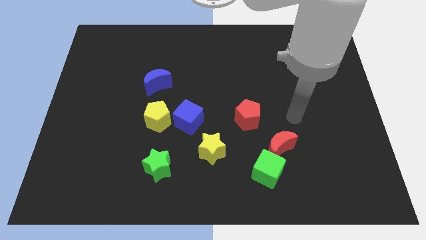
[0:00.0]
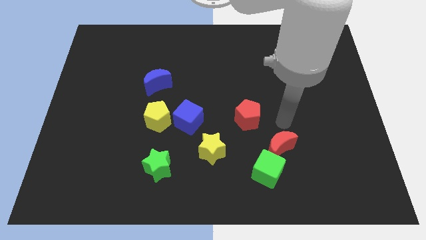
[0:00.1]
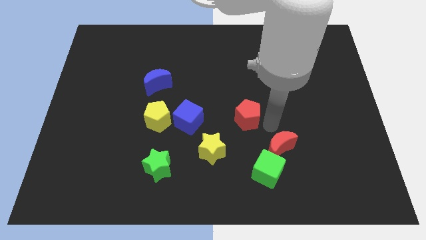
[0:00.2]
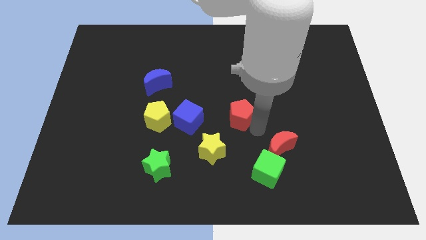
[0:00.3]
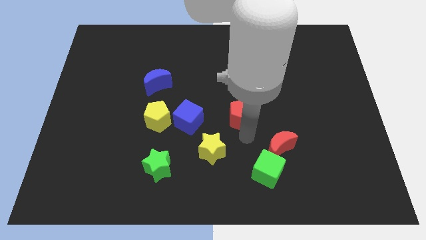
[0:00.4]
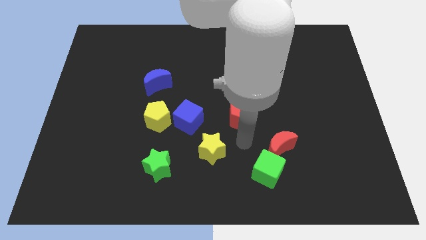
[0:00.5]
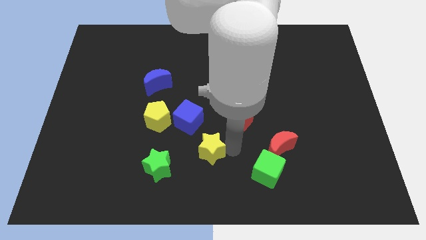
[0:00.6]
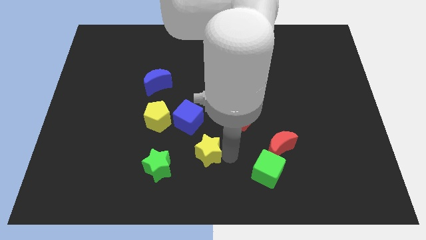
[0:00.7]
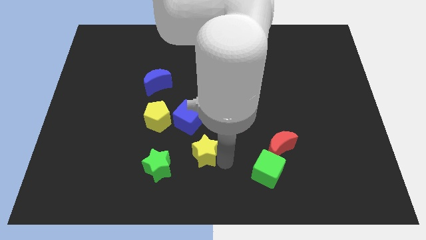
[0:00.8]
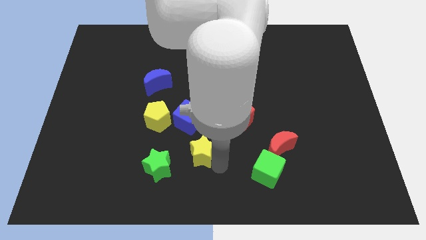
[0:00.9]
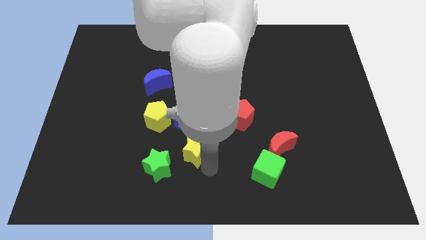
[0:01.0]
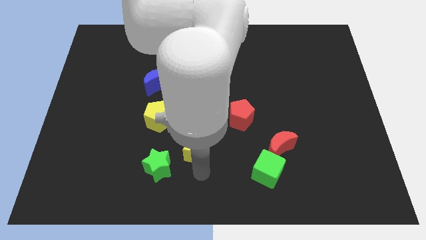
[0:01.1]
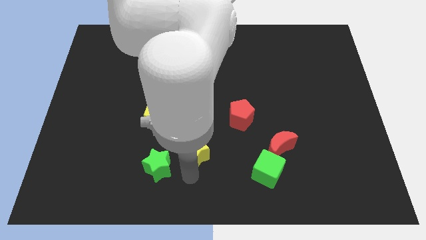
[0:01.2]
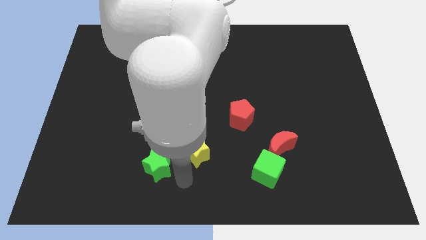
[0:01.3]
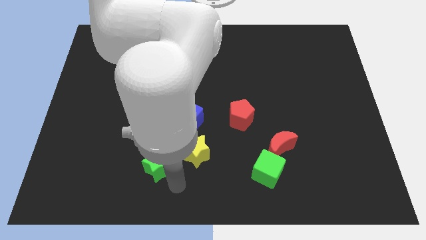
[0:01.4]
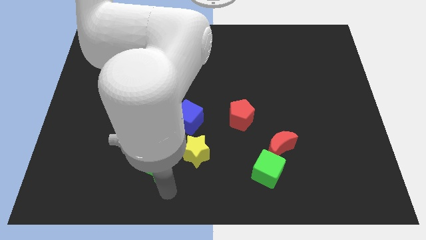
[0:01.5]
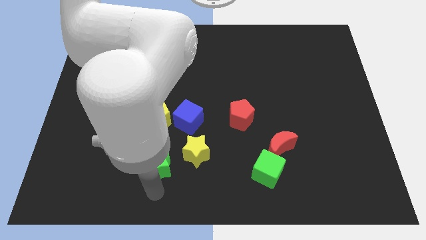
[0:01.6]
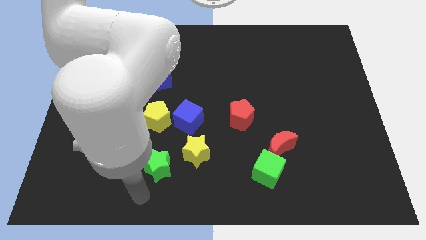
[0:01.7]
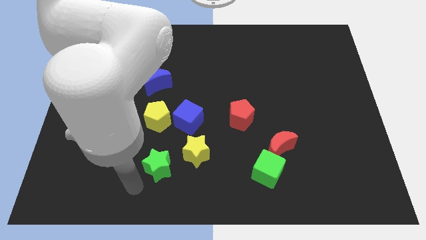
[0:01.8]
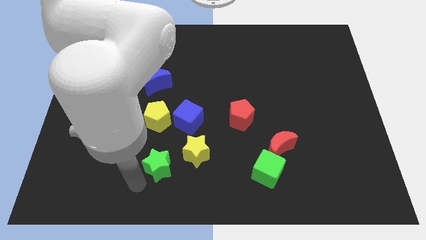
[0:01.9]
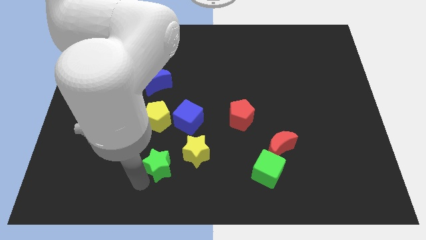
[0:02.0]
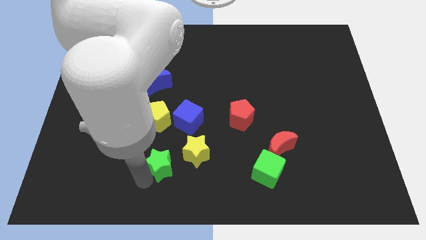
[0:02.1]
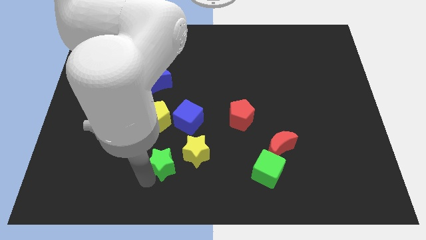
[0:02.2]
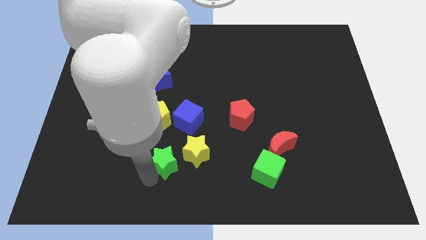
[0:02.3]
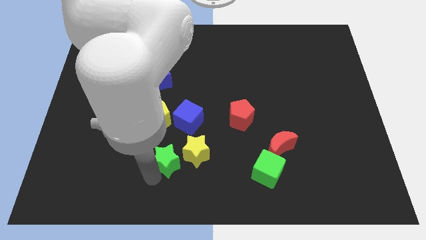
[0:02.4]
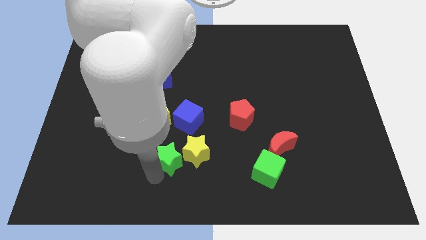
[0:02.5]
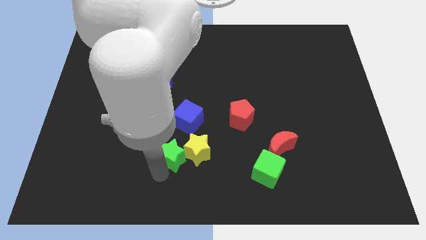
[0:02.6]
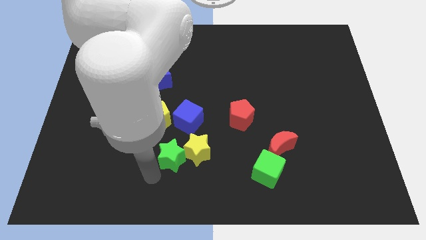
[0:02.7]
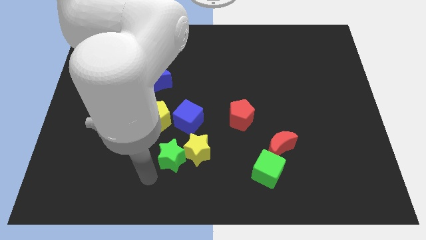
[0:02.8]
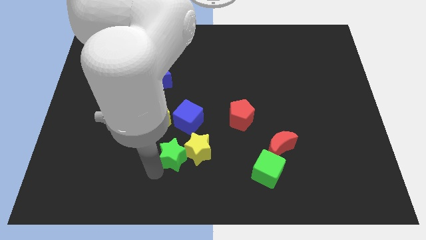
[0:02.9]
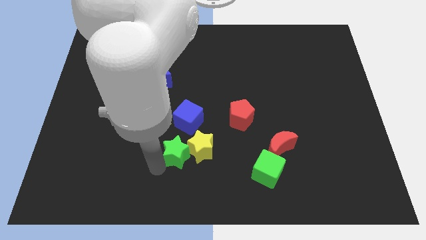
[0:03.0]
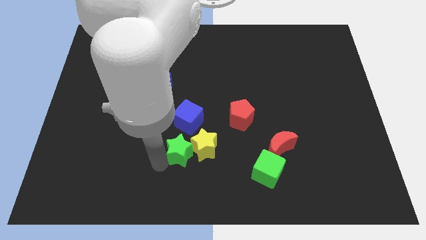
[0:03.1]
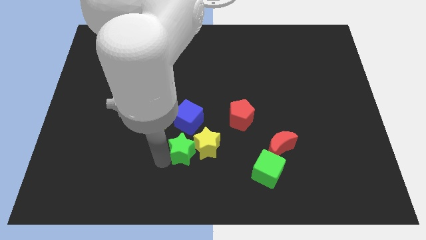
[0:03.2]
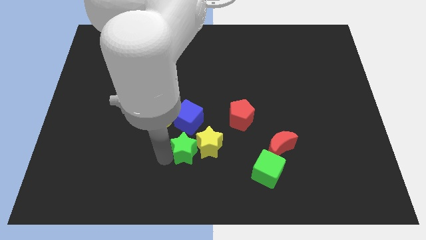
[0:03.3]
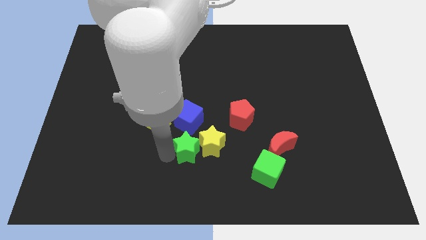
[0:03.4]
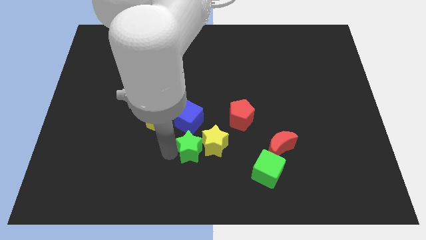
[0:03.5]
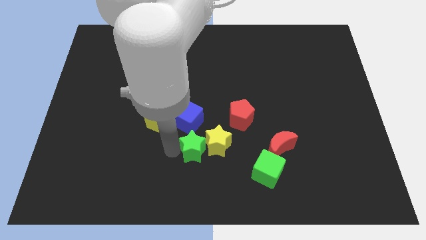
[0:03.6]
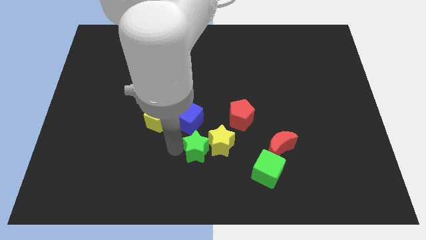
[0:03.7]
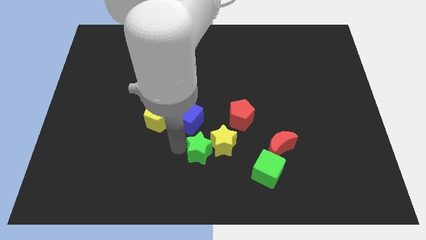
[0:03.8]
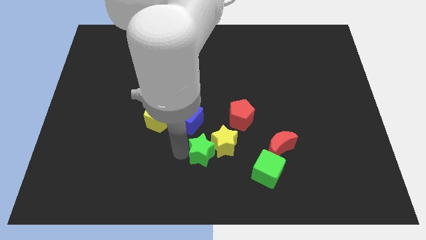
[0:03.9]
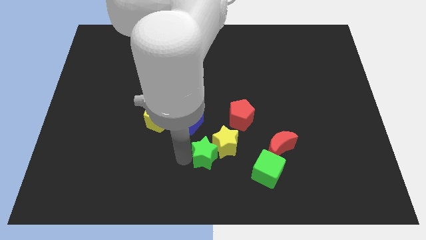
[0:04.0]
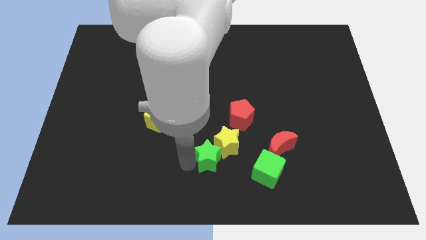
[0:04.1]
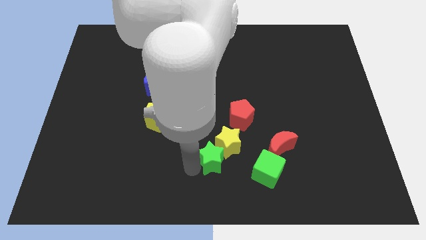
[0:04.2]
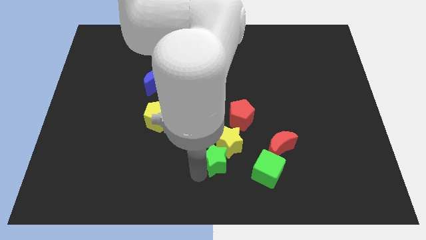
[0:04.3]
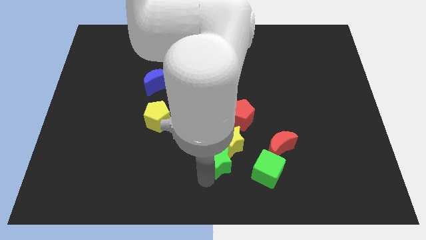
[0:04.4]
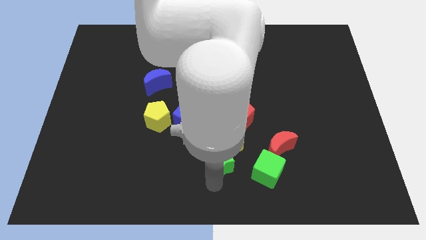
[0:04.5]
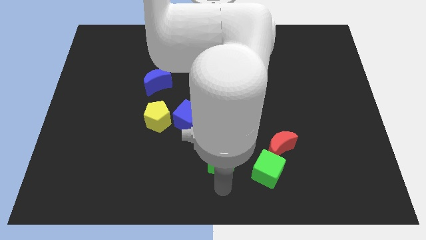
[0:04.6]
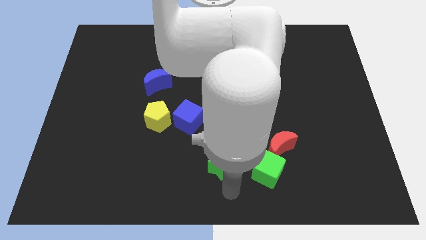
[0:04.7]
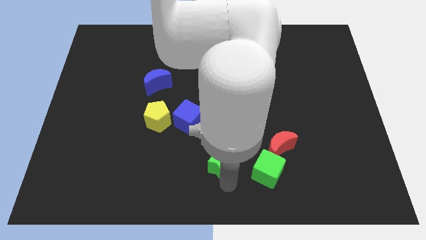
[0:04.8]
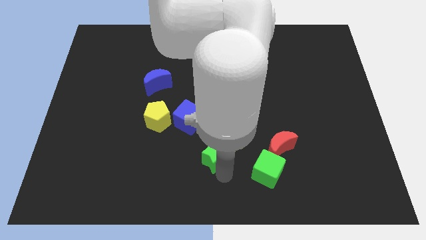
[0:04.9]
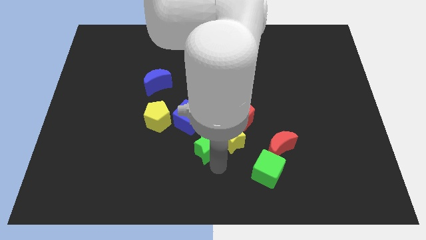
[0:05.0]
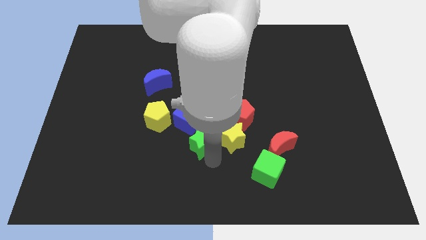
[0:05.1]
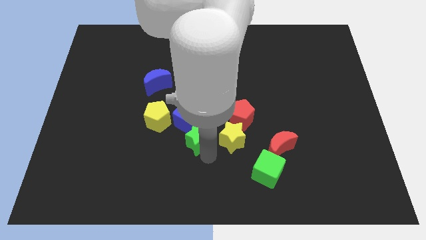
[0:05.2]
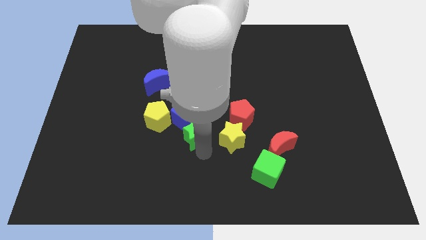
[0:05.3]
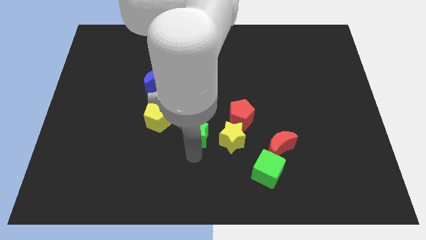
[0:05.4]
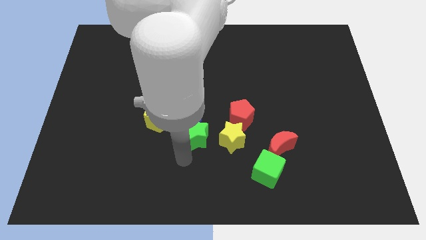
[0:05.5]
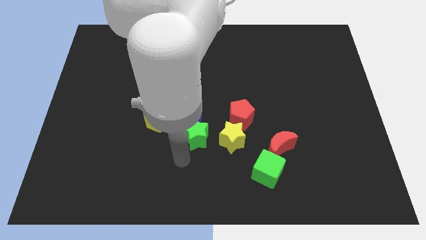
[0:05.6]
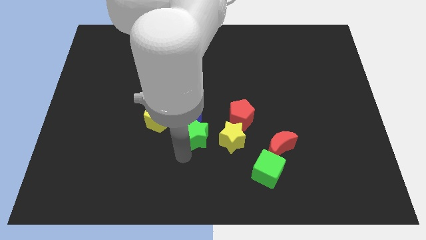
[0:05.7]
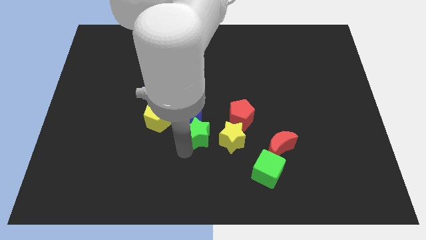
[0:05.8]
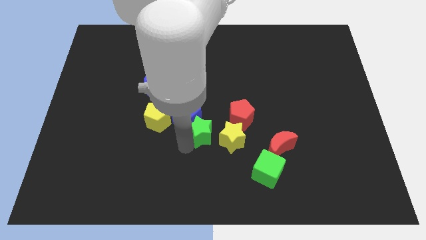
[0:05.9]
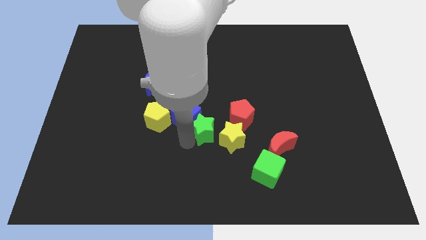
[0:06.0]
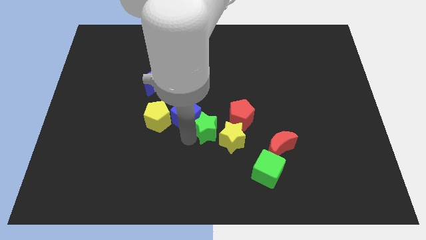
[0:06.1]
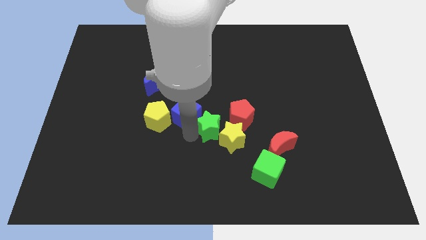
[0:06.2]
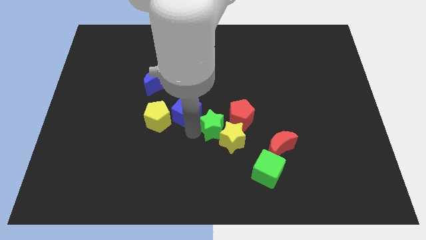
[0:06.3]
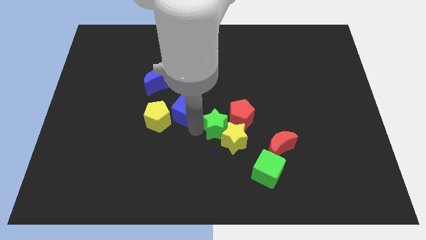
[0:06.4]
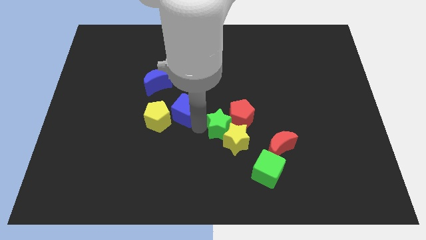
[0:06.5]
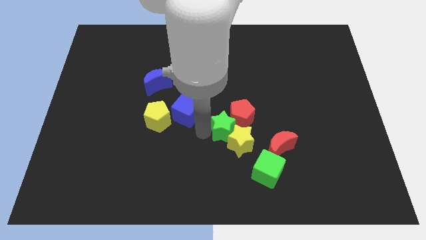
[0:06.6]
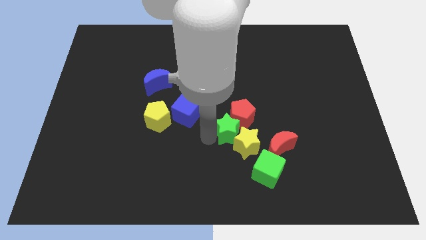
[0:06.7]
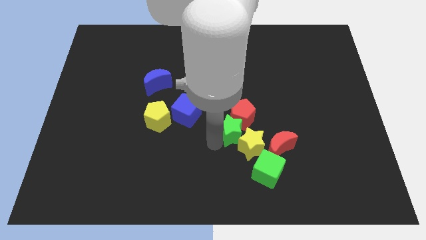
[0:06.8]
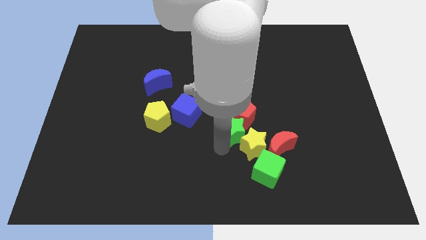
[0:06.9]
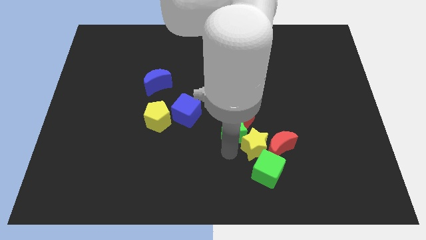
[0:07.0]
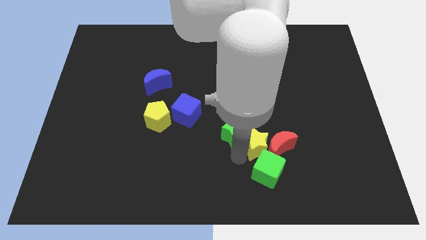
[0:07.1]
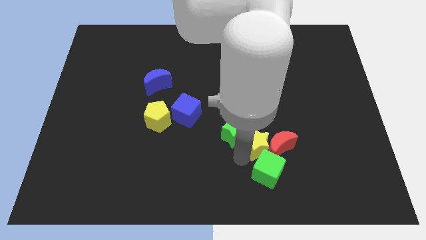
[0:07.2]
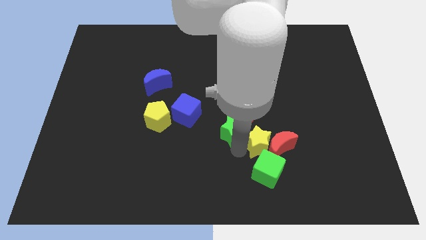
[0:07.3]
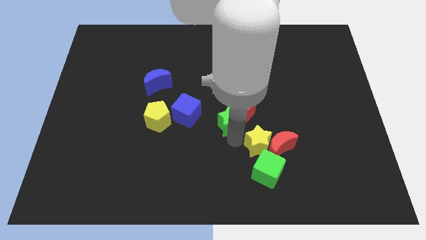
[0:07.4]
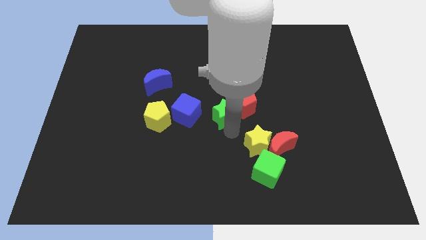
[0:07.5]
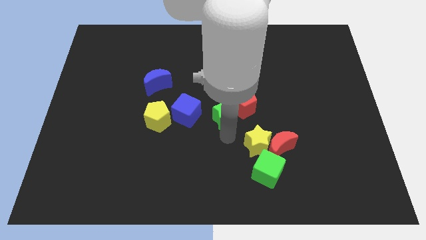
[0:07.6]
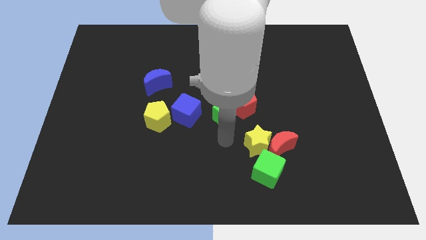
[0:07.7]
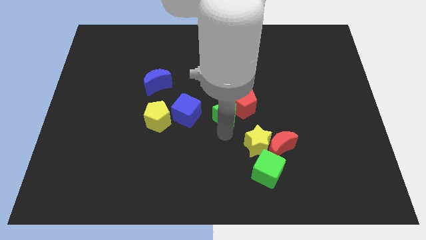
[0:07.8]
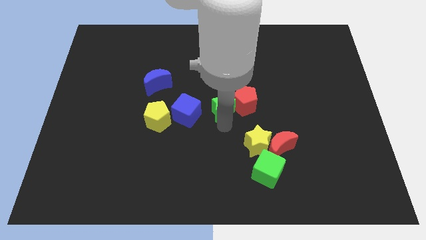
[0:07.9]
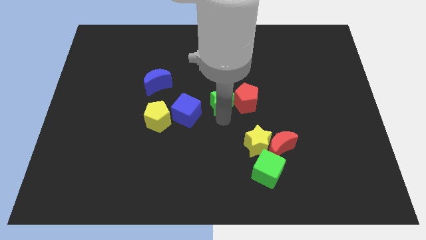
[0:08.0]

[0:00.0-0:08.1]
slide the green star to the top left of the red pentagon
